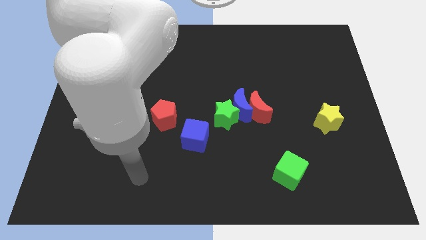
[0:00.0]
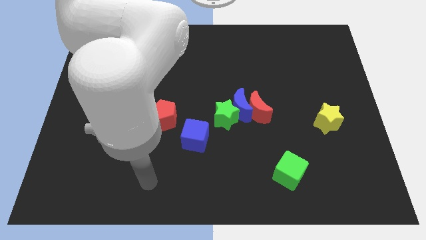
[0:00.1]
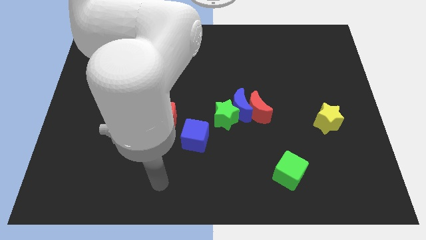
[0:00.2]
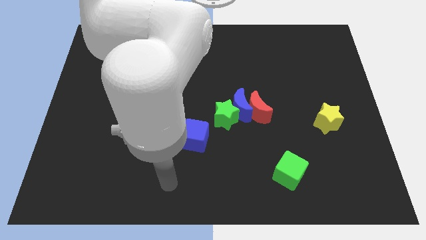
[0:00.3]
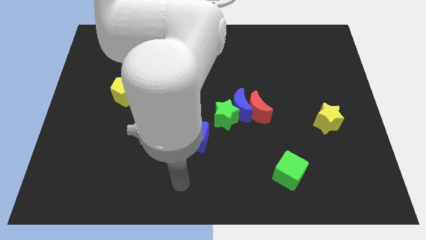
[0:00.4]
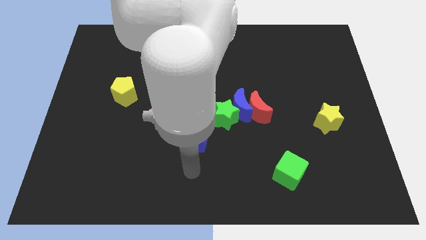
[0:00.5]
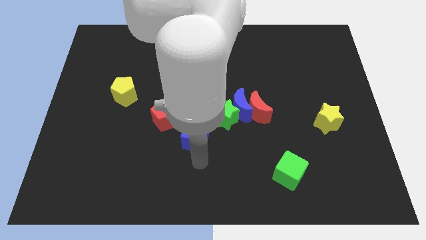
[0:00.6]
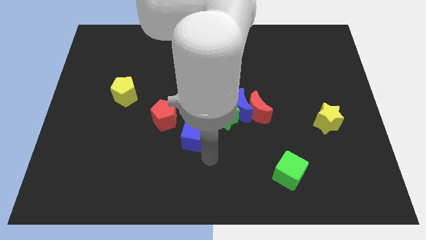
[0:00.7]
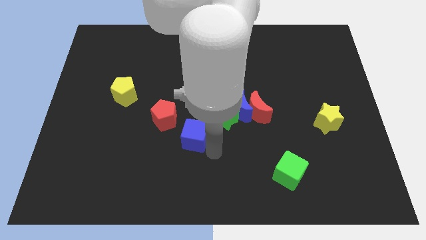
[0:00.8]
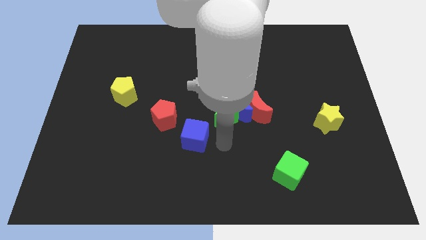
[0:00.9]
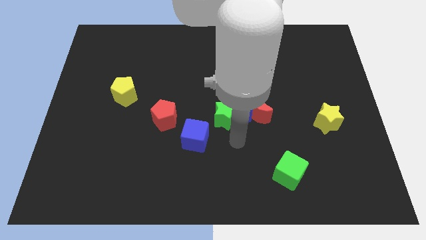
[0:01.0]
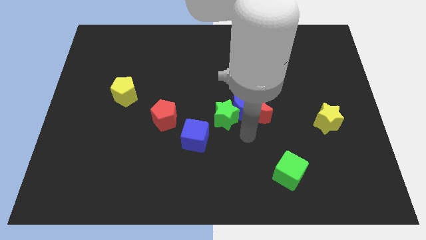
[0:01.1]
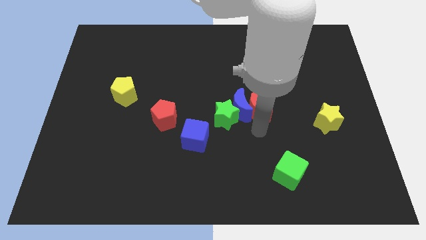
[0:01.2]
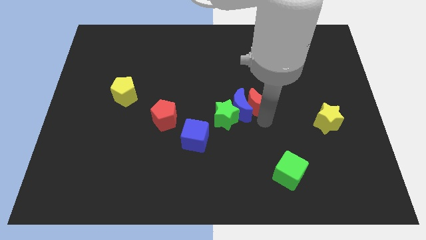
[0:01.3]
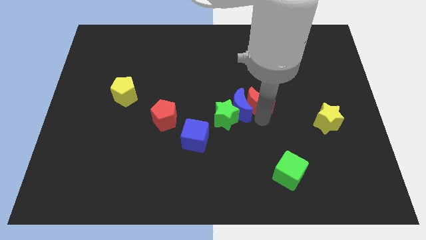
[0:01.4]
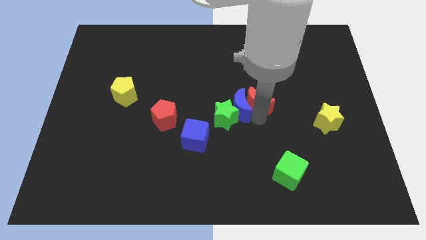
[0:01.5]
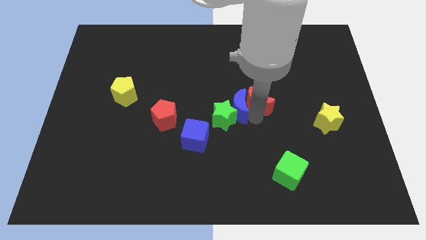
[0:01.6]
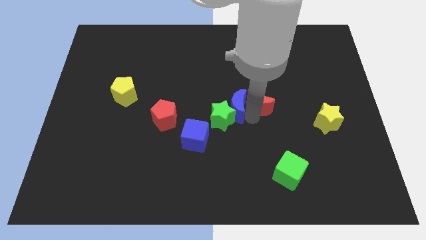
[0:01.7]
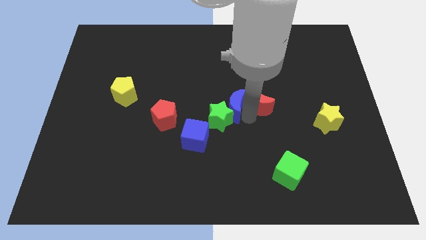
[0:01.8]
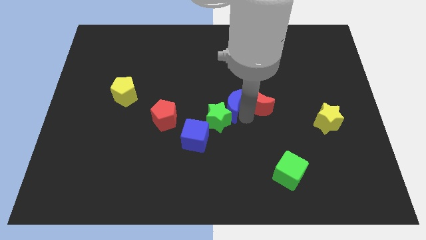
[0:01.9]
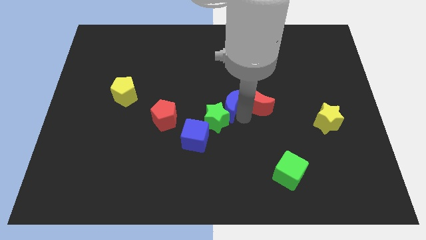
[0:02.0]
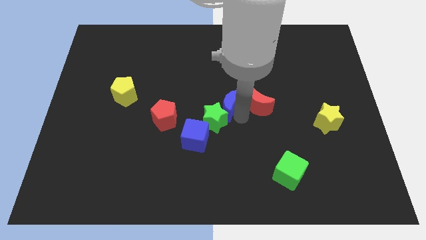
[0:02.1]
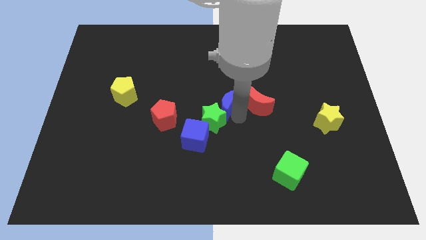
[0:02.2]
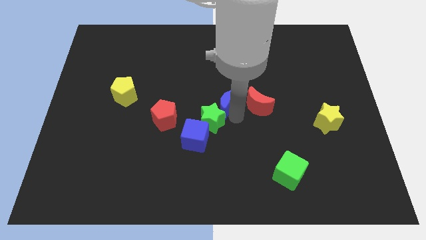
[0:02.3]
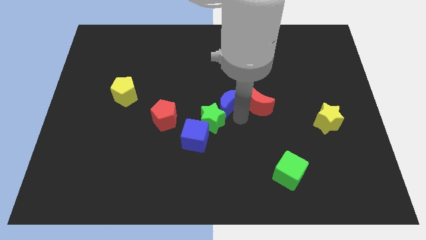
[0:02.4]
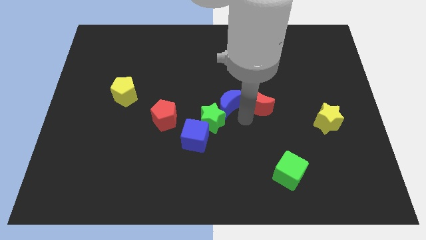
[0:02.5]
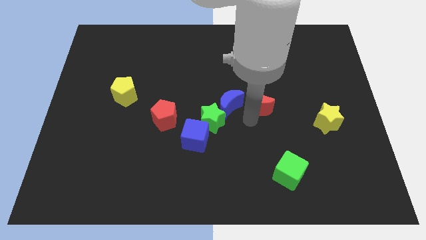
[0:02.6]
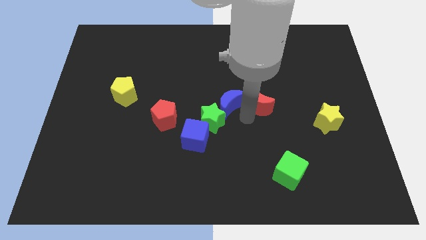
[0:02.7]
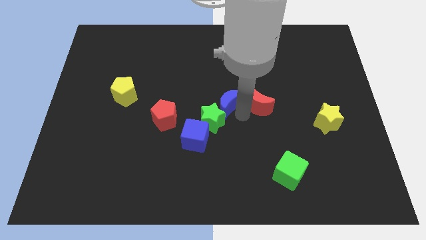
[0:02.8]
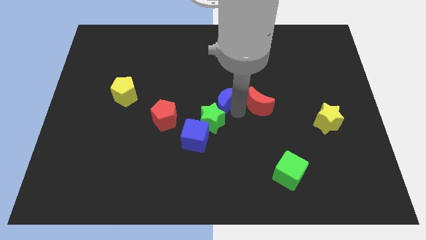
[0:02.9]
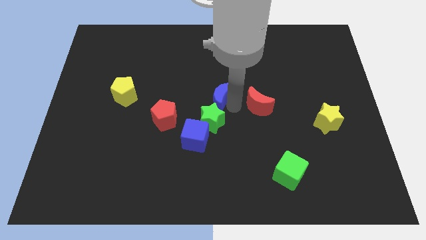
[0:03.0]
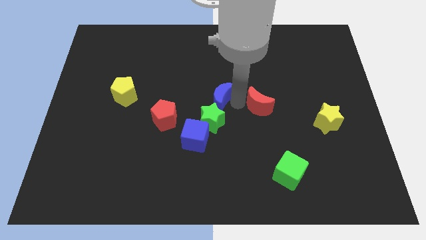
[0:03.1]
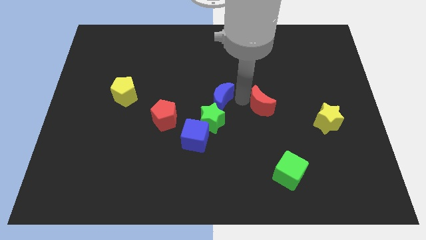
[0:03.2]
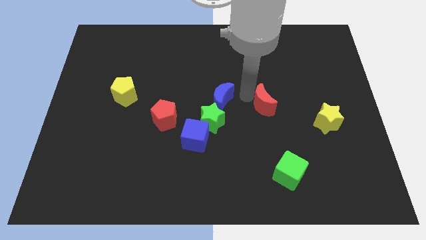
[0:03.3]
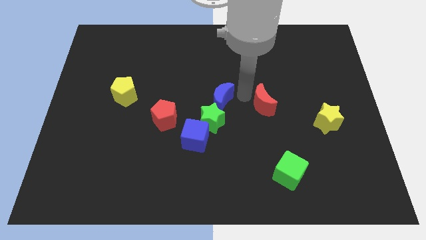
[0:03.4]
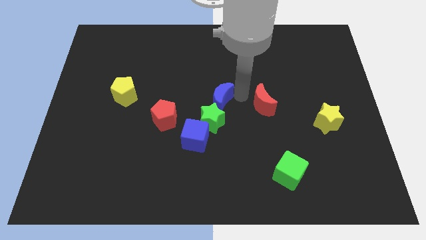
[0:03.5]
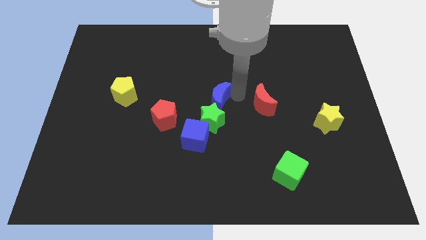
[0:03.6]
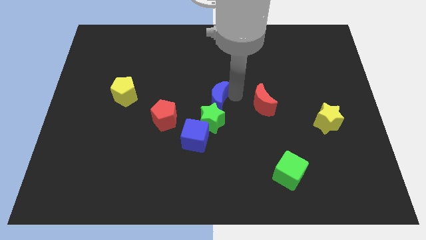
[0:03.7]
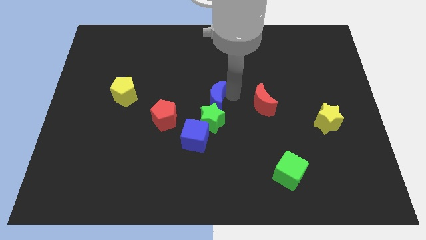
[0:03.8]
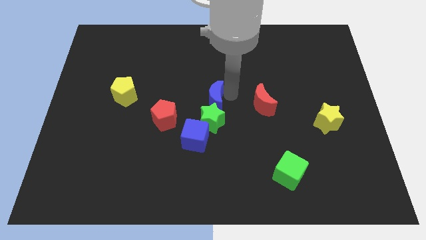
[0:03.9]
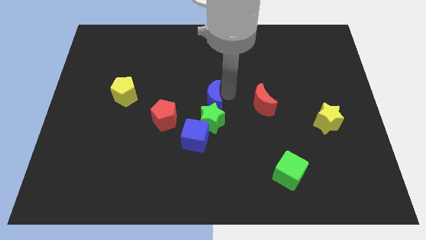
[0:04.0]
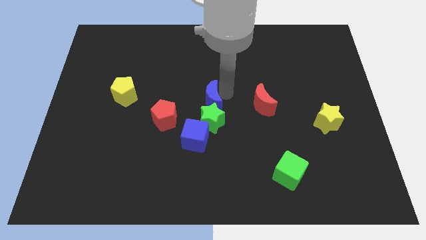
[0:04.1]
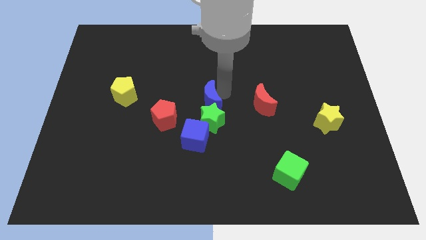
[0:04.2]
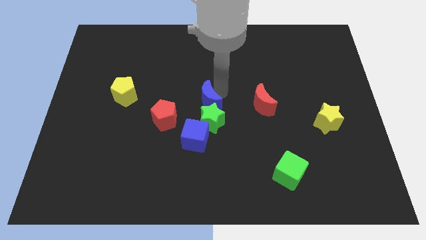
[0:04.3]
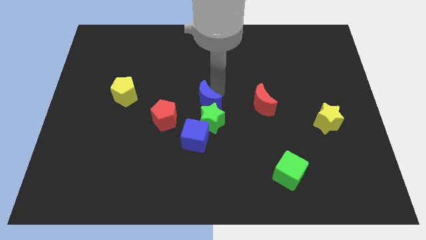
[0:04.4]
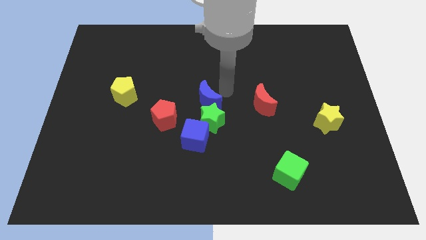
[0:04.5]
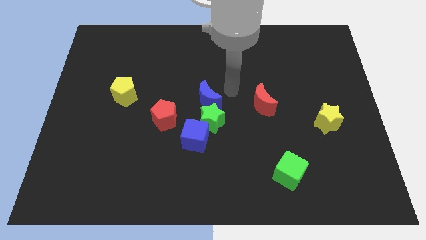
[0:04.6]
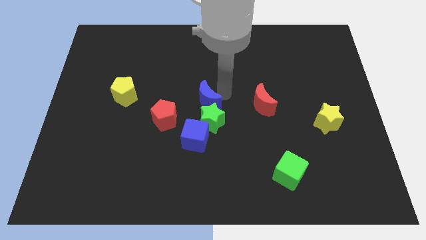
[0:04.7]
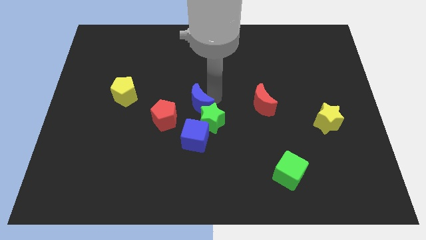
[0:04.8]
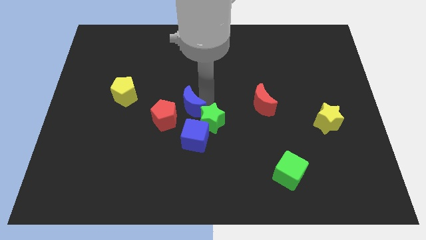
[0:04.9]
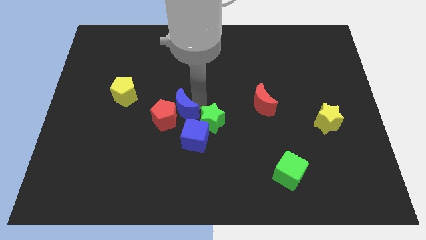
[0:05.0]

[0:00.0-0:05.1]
put the blue moon next to the red pentagon

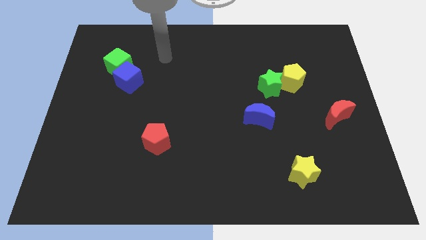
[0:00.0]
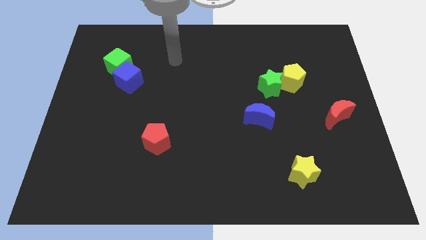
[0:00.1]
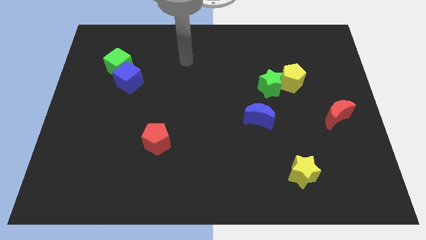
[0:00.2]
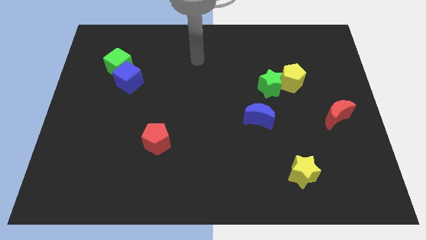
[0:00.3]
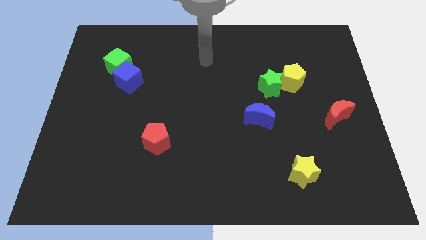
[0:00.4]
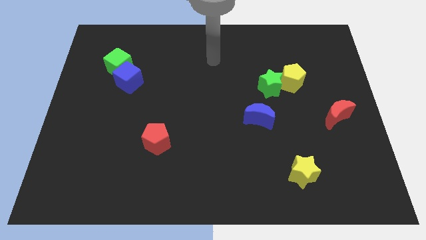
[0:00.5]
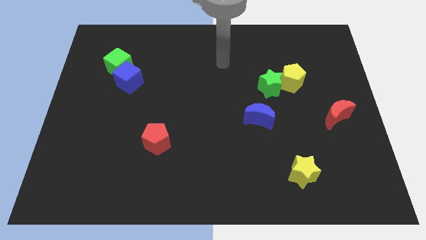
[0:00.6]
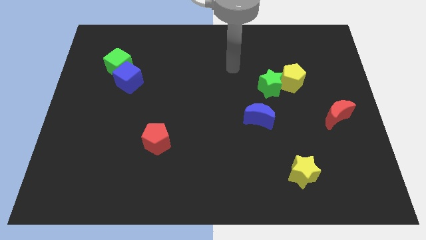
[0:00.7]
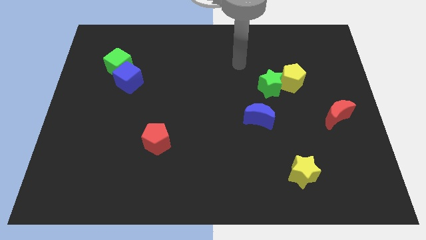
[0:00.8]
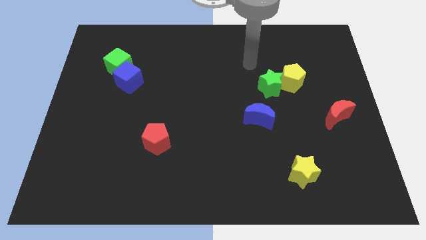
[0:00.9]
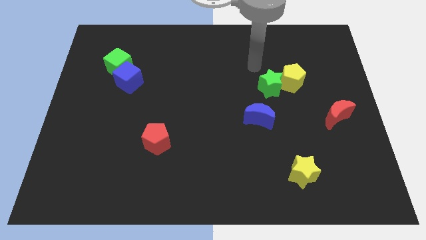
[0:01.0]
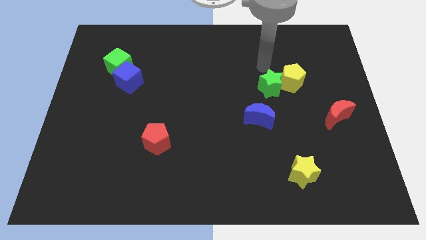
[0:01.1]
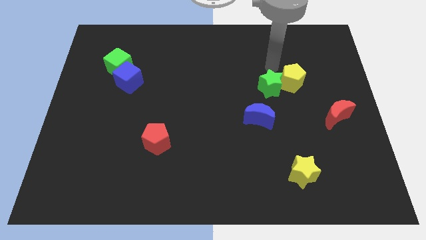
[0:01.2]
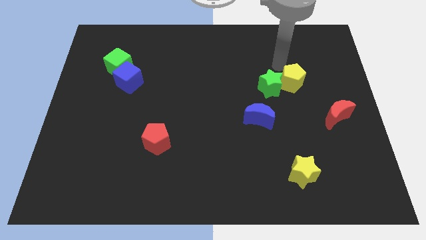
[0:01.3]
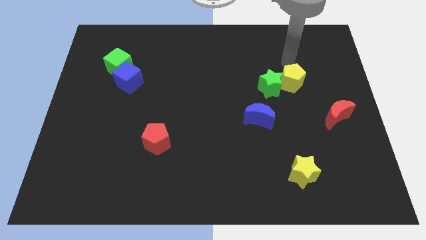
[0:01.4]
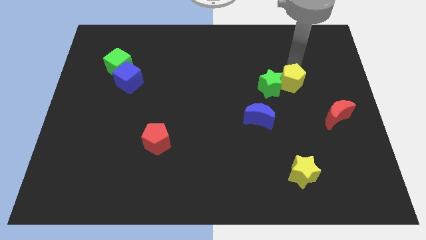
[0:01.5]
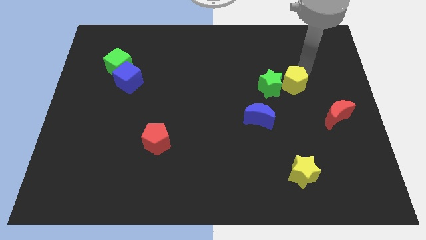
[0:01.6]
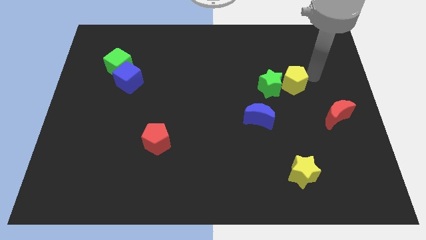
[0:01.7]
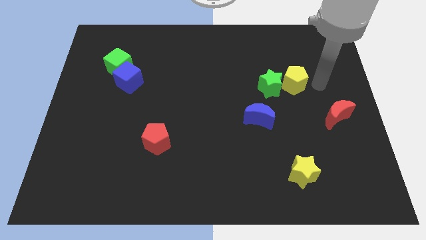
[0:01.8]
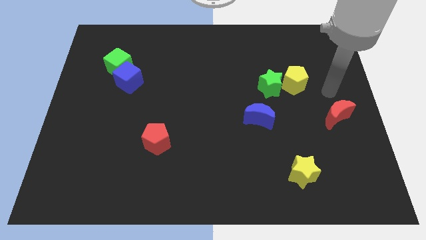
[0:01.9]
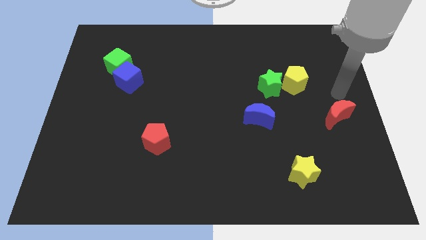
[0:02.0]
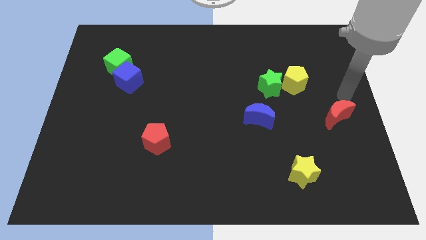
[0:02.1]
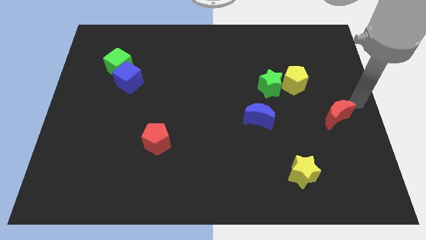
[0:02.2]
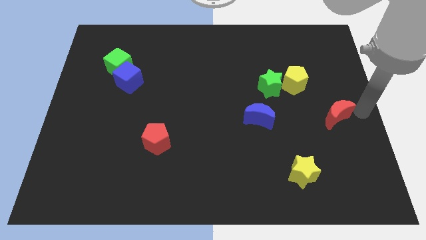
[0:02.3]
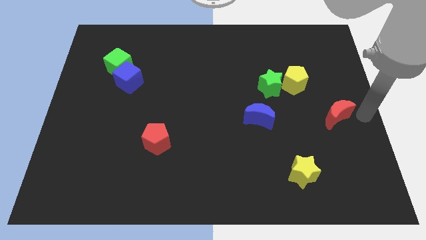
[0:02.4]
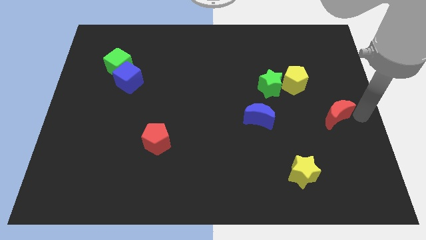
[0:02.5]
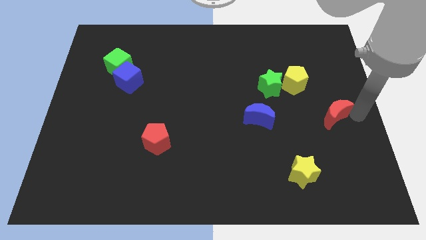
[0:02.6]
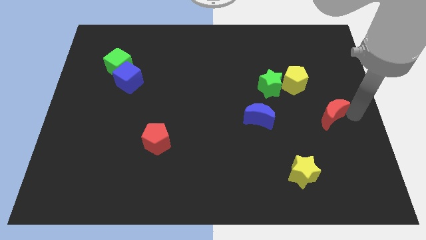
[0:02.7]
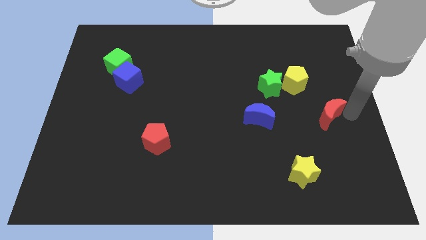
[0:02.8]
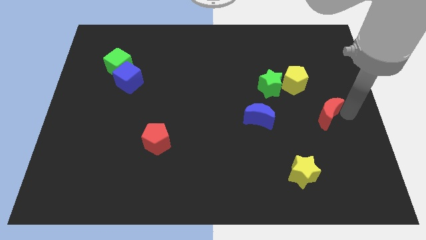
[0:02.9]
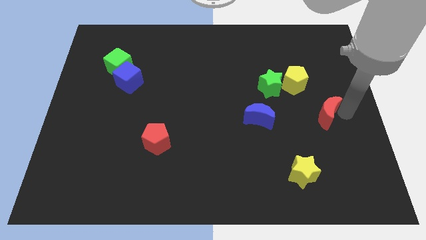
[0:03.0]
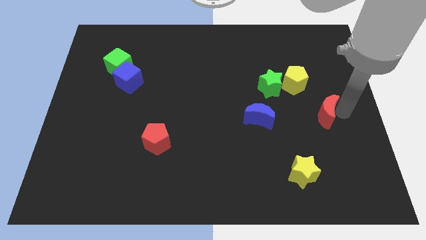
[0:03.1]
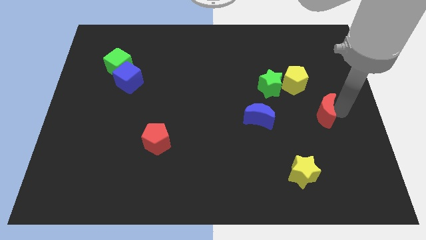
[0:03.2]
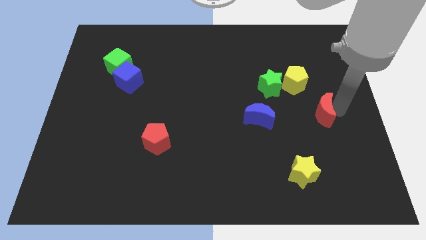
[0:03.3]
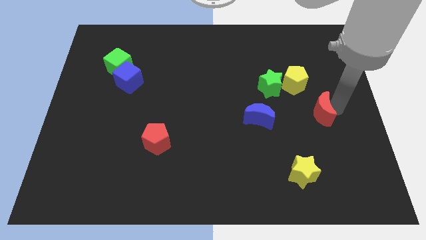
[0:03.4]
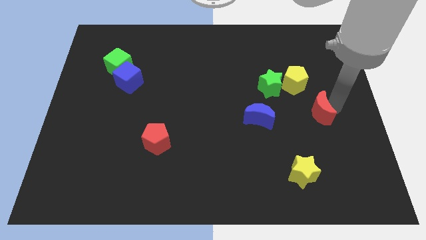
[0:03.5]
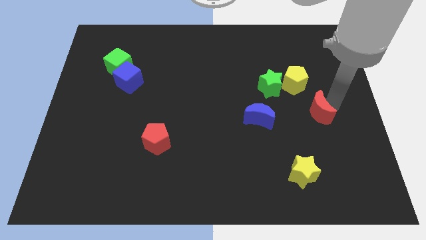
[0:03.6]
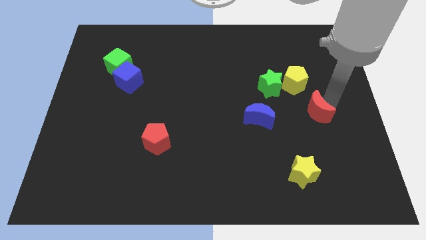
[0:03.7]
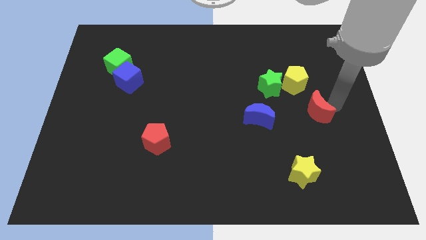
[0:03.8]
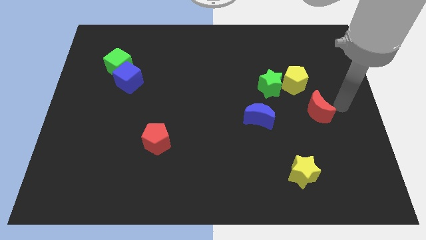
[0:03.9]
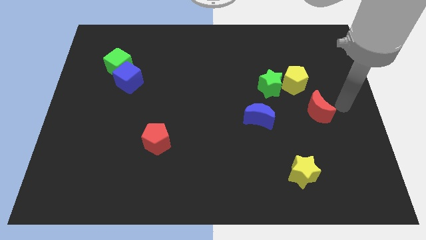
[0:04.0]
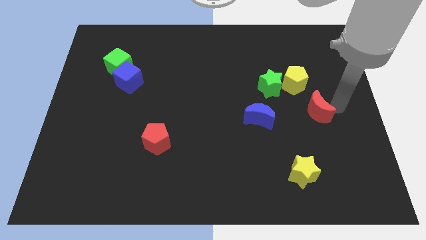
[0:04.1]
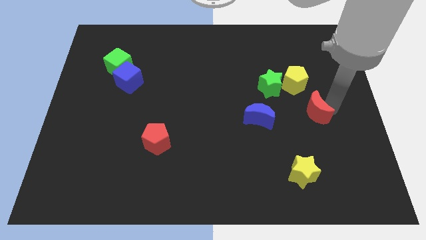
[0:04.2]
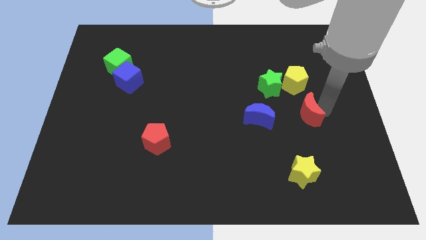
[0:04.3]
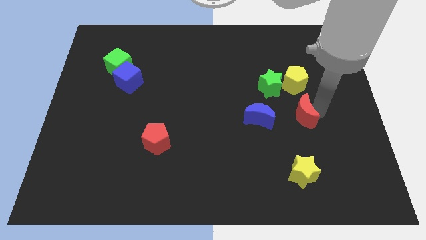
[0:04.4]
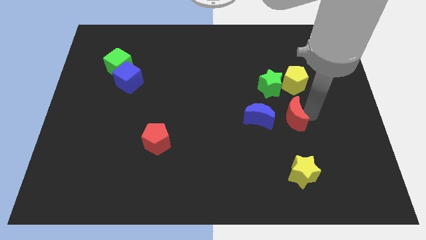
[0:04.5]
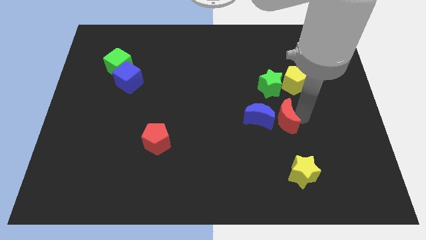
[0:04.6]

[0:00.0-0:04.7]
slide the red moon to the blue moon
